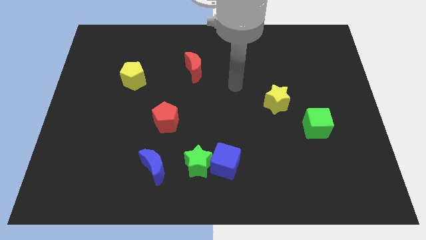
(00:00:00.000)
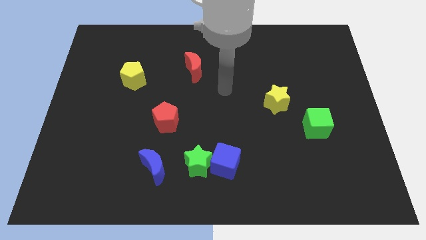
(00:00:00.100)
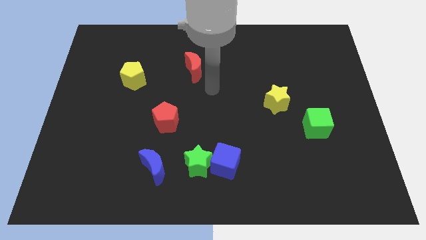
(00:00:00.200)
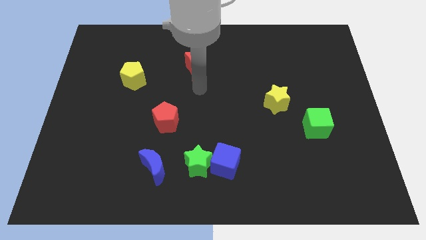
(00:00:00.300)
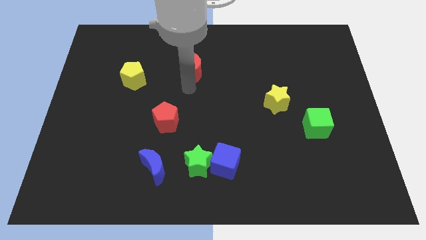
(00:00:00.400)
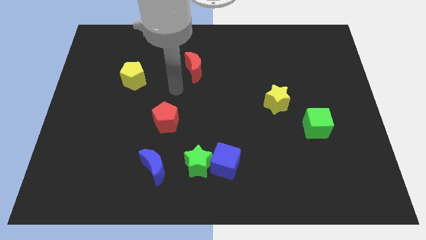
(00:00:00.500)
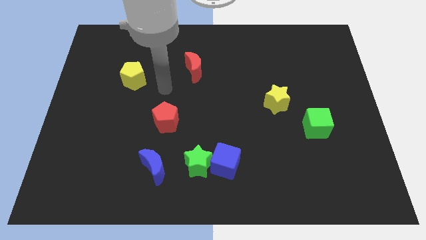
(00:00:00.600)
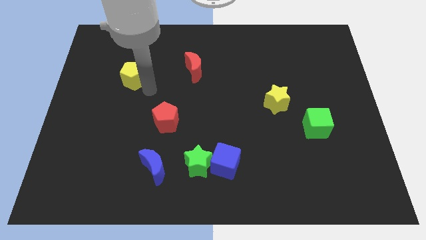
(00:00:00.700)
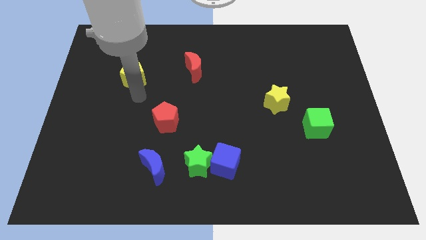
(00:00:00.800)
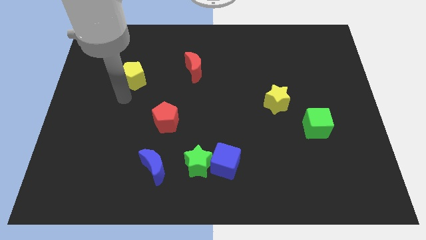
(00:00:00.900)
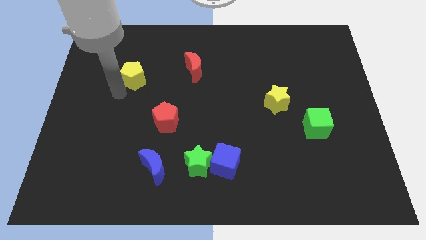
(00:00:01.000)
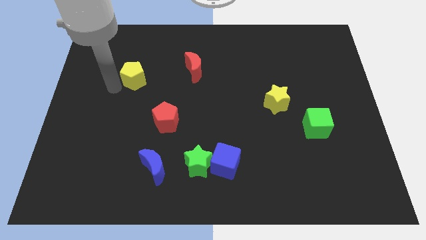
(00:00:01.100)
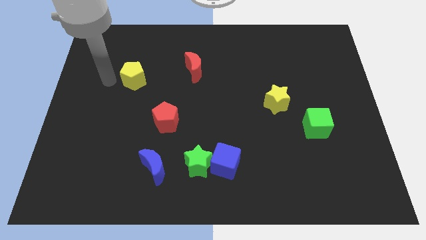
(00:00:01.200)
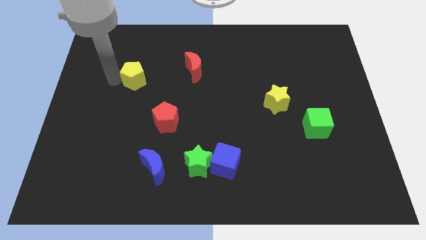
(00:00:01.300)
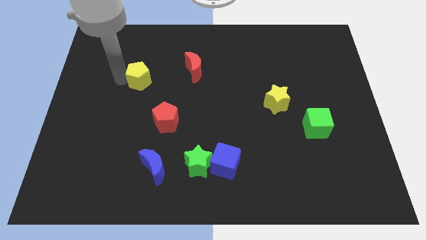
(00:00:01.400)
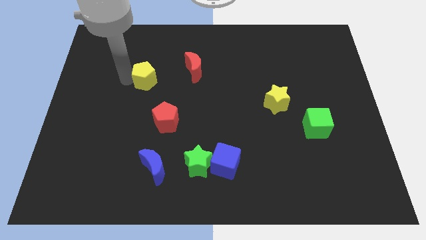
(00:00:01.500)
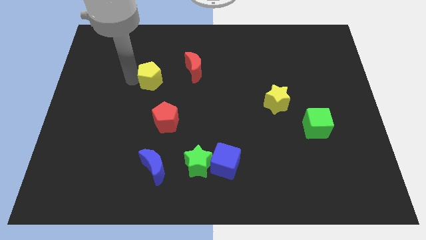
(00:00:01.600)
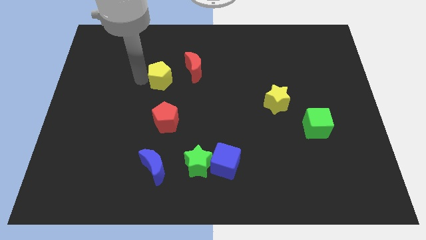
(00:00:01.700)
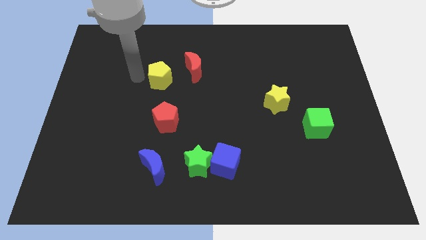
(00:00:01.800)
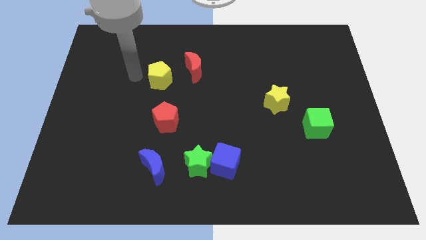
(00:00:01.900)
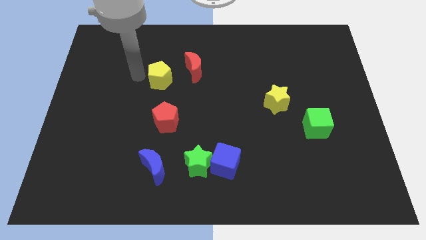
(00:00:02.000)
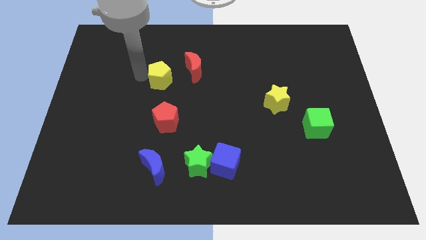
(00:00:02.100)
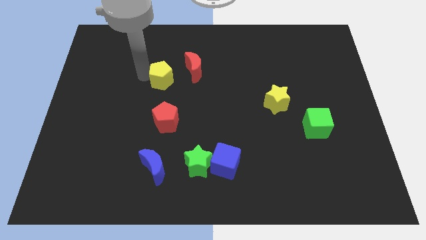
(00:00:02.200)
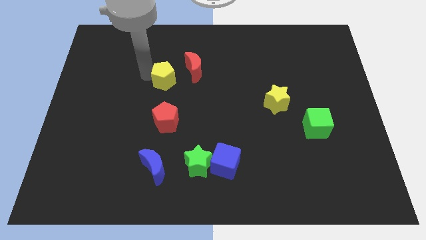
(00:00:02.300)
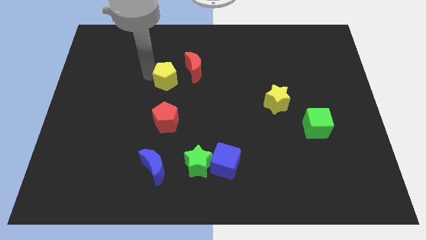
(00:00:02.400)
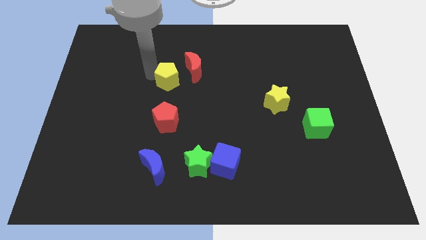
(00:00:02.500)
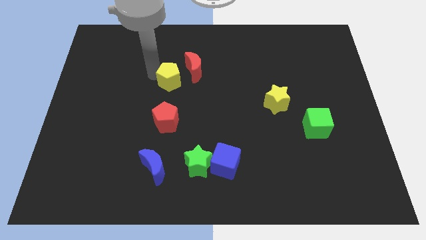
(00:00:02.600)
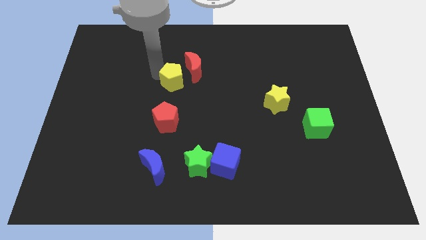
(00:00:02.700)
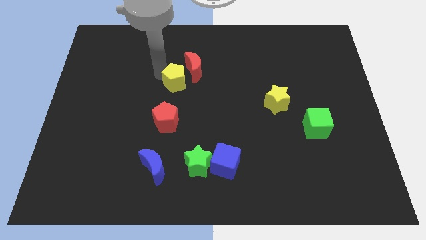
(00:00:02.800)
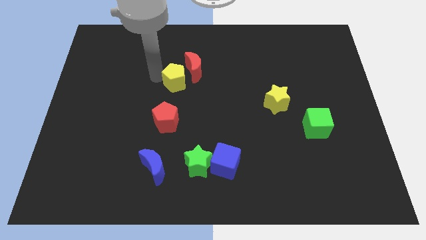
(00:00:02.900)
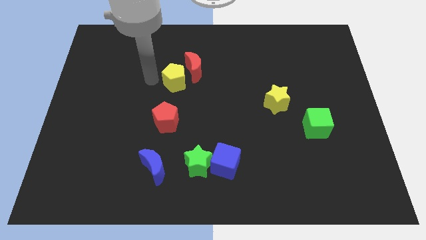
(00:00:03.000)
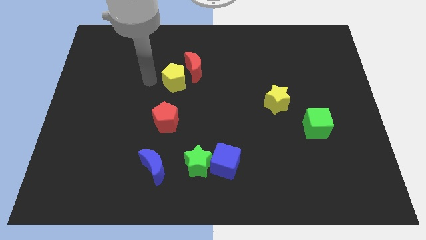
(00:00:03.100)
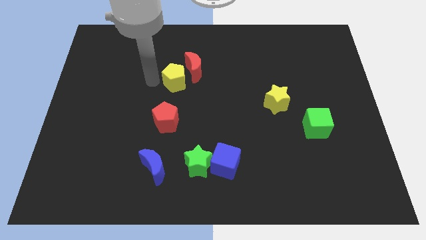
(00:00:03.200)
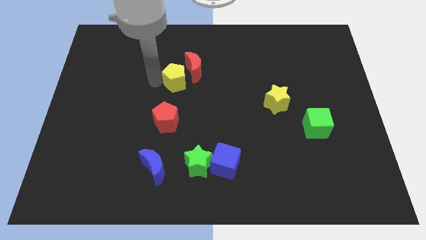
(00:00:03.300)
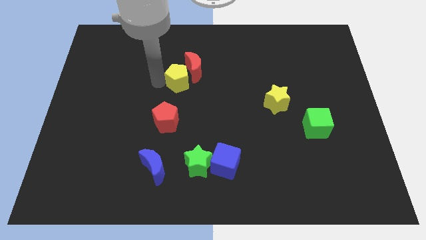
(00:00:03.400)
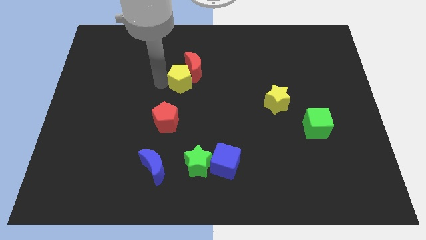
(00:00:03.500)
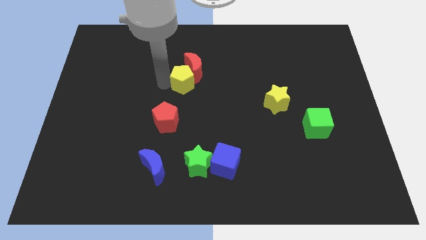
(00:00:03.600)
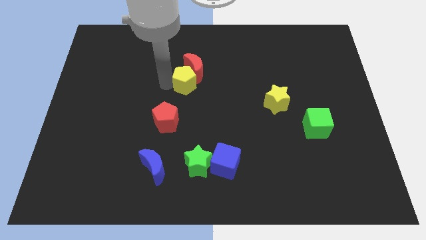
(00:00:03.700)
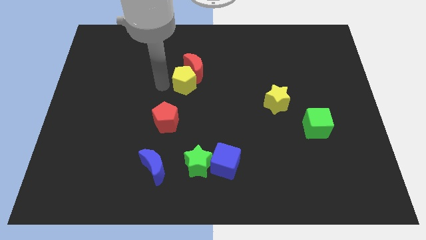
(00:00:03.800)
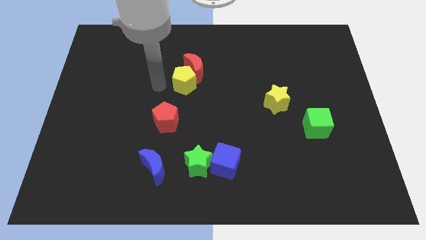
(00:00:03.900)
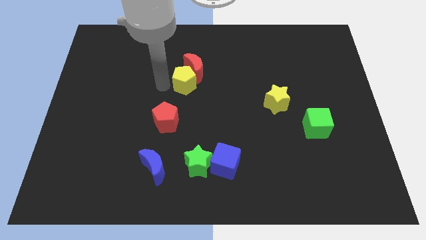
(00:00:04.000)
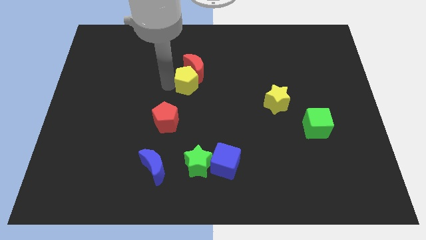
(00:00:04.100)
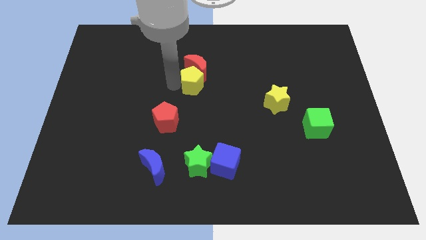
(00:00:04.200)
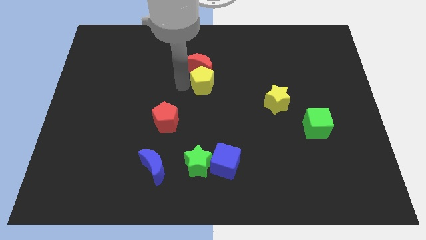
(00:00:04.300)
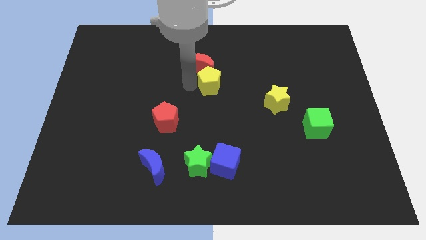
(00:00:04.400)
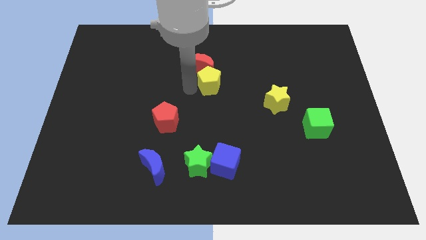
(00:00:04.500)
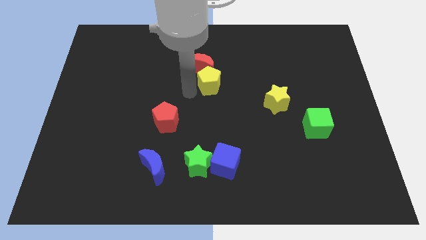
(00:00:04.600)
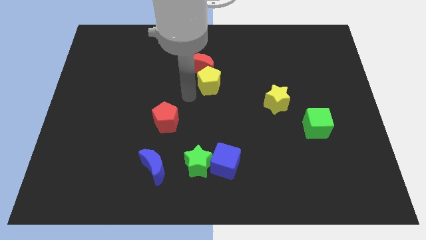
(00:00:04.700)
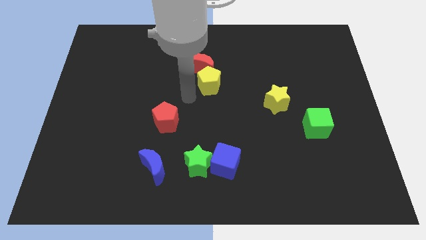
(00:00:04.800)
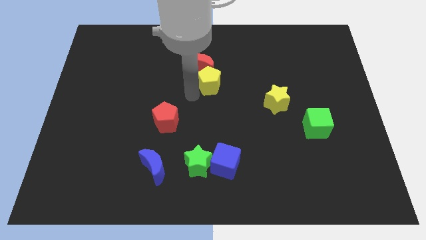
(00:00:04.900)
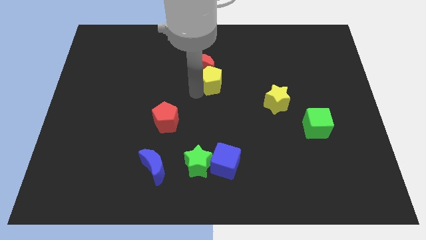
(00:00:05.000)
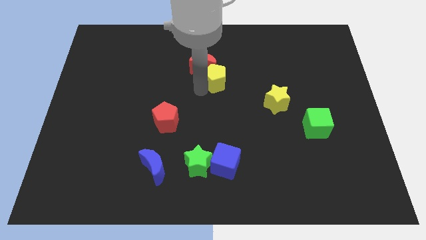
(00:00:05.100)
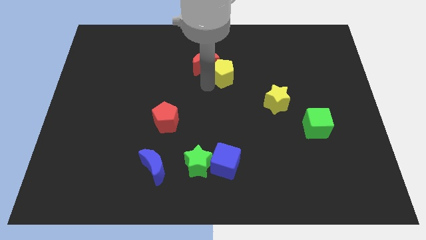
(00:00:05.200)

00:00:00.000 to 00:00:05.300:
slide the yellow pentagon just right of the red moon

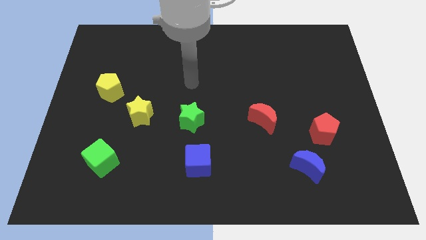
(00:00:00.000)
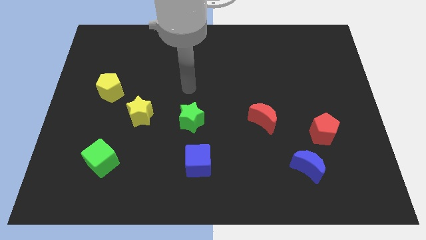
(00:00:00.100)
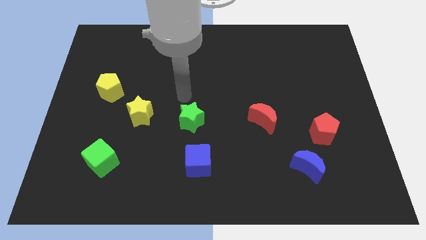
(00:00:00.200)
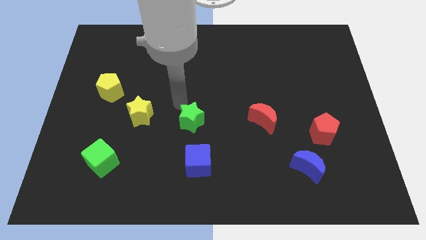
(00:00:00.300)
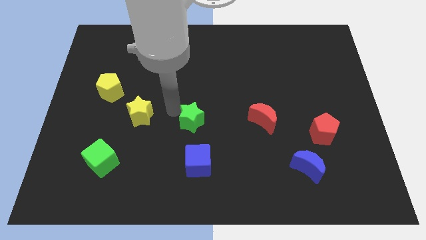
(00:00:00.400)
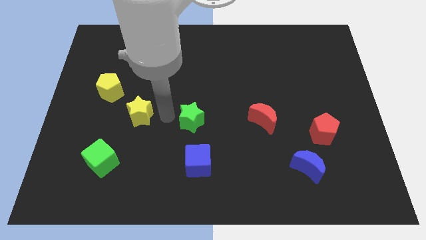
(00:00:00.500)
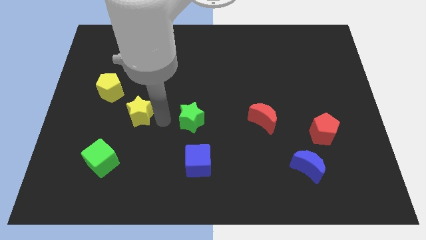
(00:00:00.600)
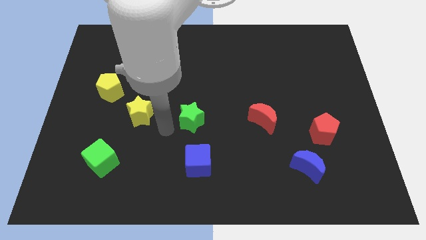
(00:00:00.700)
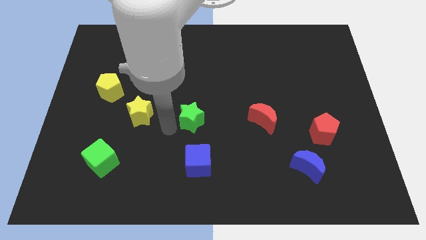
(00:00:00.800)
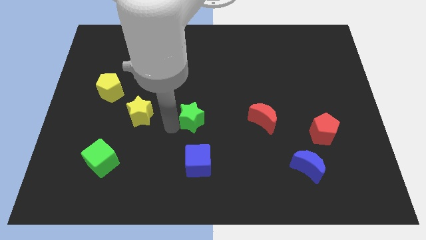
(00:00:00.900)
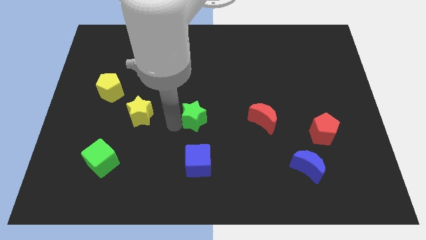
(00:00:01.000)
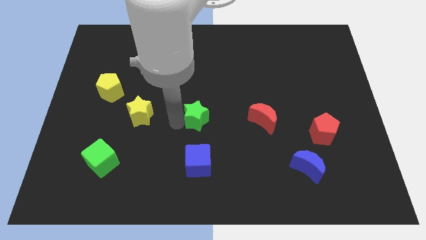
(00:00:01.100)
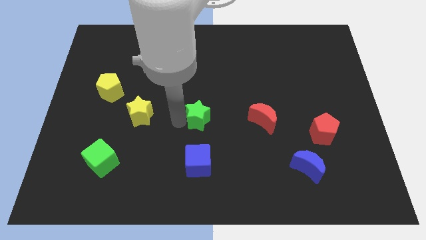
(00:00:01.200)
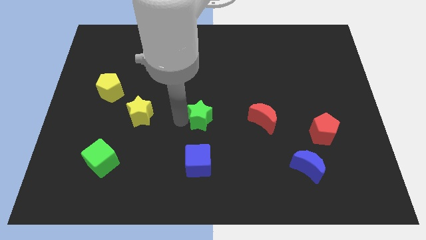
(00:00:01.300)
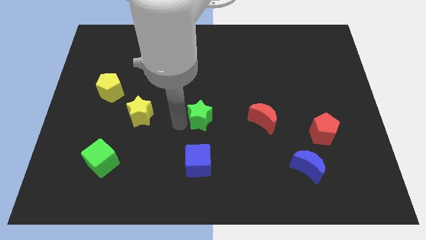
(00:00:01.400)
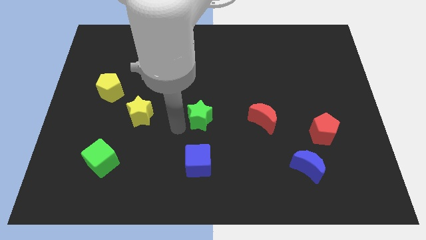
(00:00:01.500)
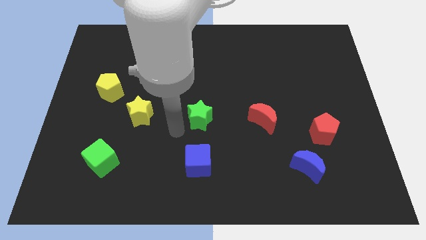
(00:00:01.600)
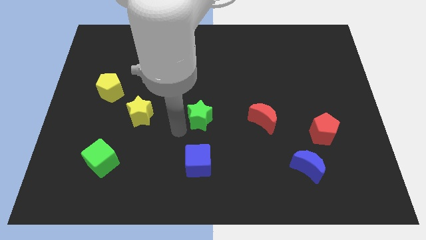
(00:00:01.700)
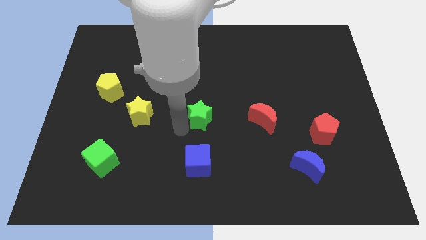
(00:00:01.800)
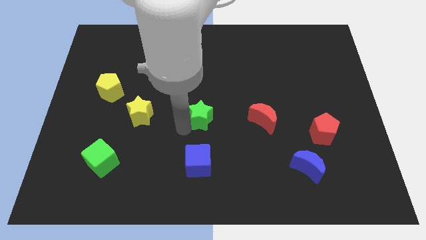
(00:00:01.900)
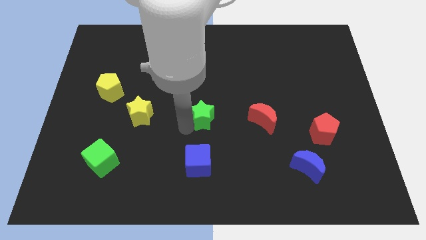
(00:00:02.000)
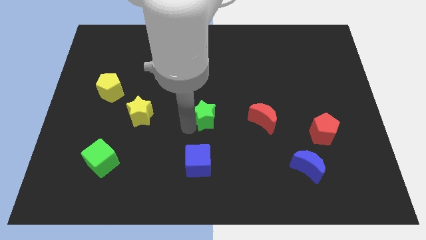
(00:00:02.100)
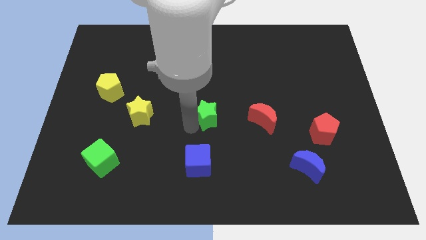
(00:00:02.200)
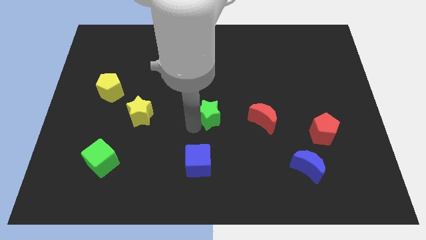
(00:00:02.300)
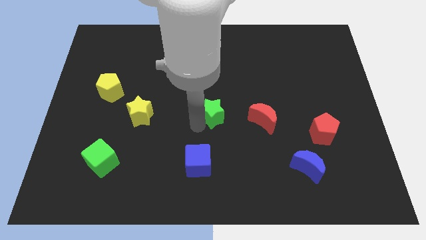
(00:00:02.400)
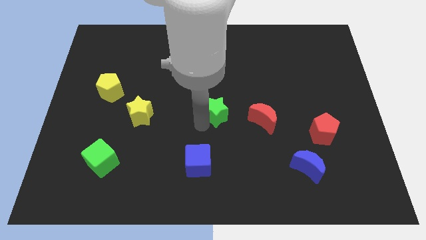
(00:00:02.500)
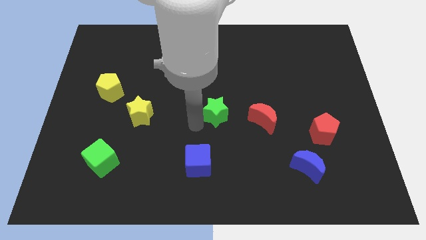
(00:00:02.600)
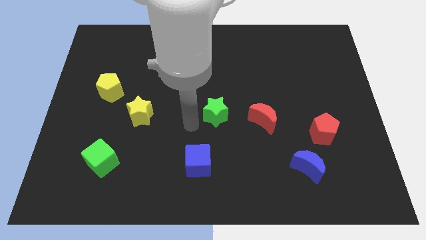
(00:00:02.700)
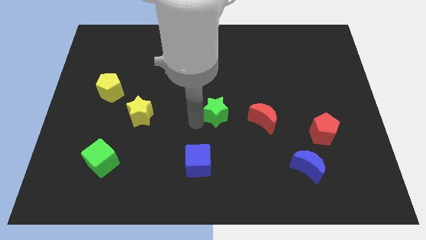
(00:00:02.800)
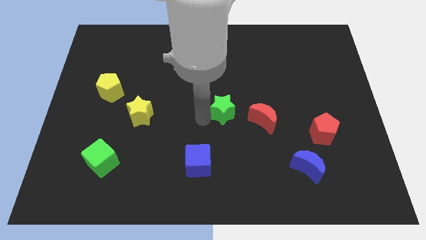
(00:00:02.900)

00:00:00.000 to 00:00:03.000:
move the green star diagonally up and to the left of the red moon
